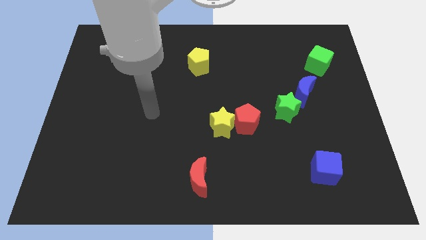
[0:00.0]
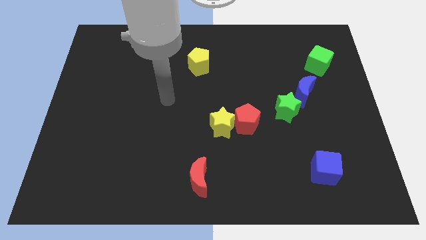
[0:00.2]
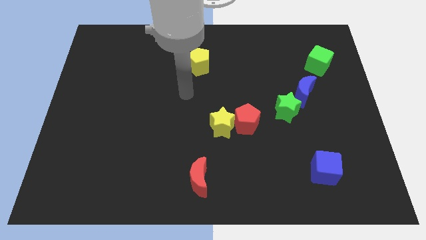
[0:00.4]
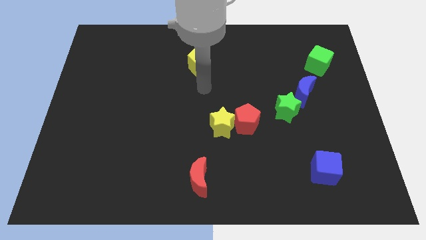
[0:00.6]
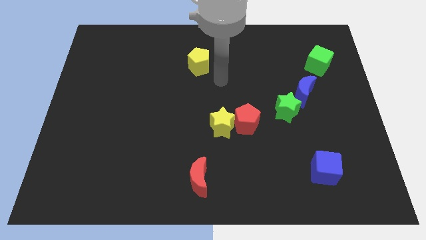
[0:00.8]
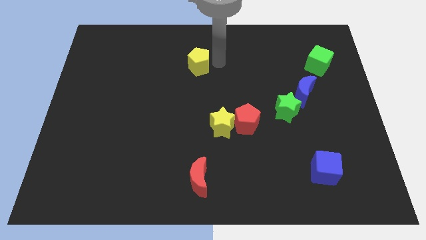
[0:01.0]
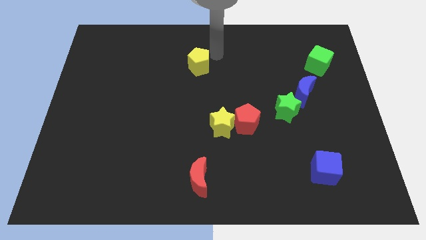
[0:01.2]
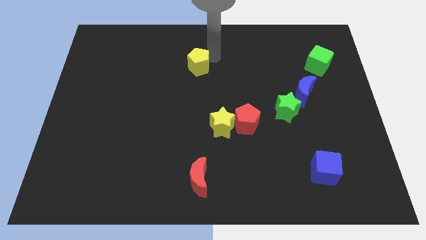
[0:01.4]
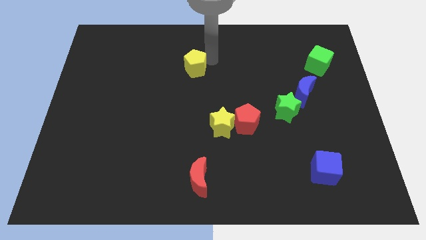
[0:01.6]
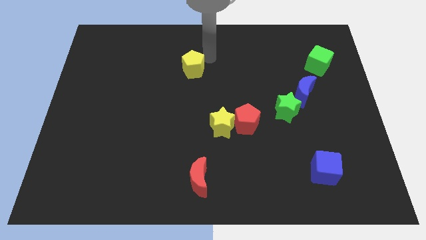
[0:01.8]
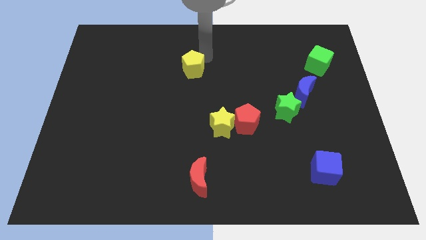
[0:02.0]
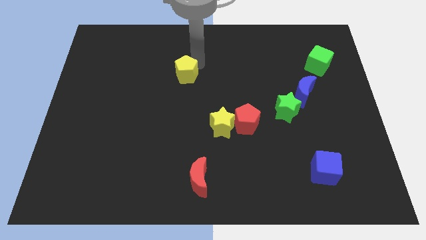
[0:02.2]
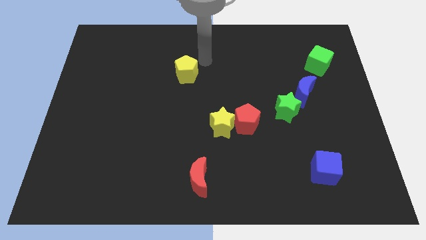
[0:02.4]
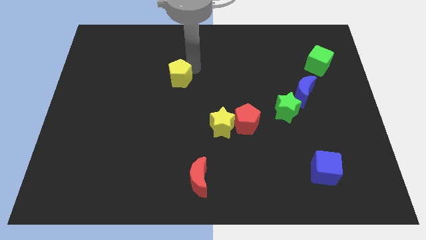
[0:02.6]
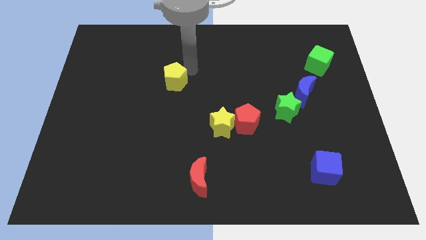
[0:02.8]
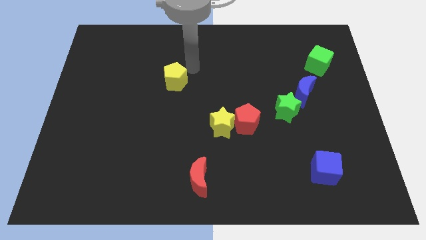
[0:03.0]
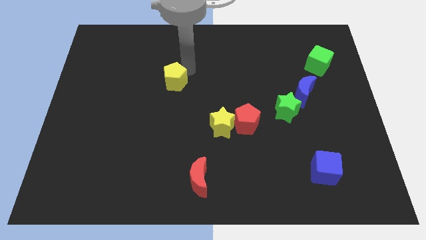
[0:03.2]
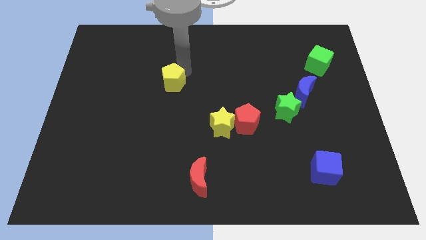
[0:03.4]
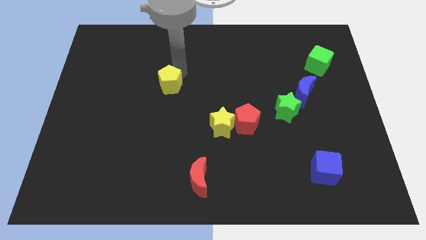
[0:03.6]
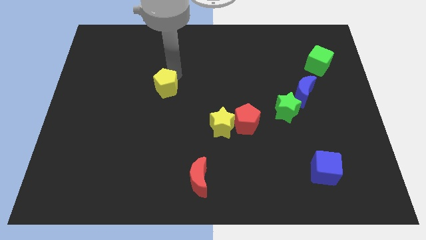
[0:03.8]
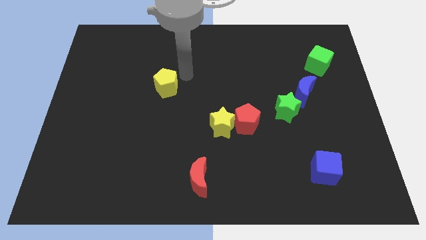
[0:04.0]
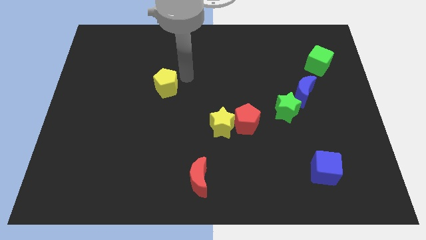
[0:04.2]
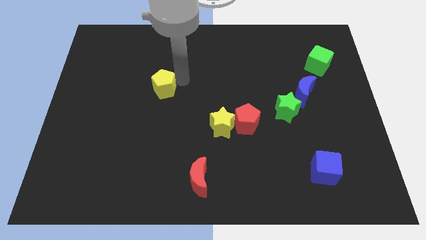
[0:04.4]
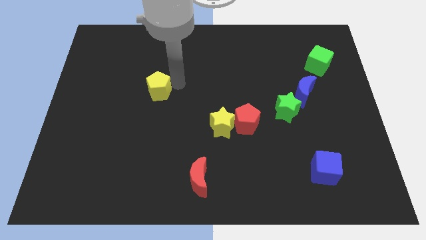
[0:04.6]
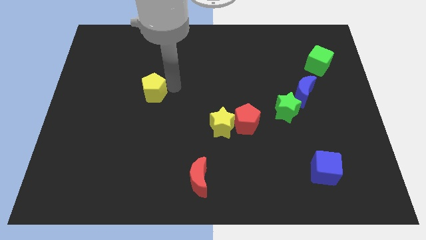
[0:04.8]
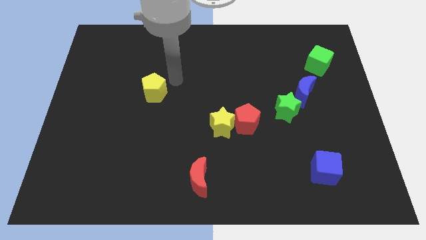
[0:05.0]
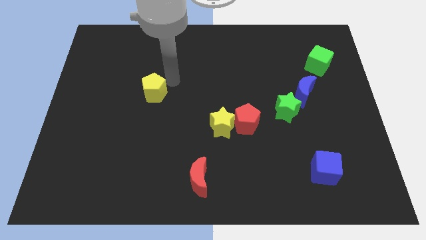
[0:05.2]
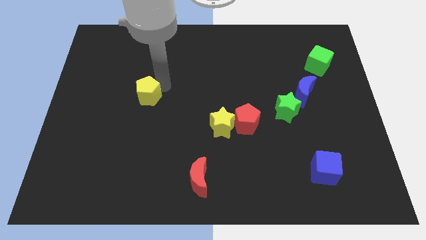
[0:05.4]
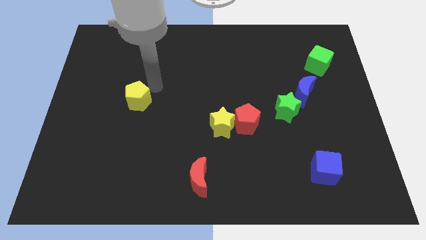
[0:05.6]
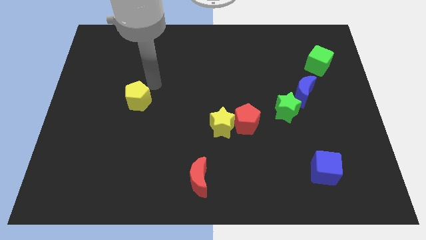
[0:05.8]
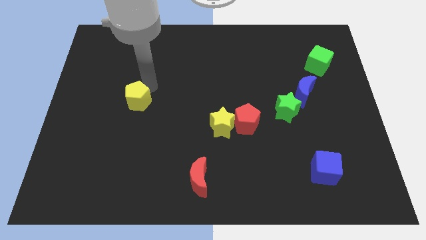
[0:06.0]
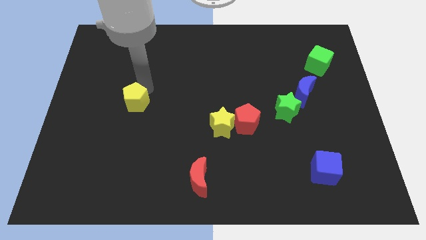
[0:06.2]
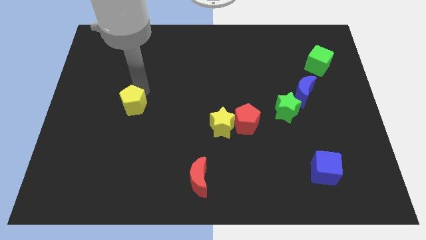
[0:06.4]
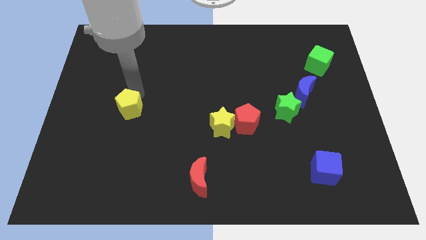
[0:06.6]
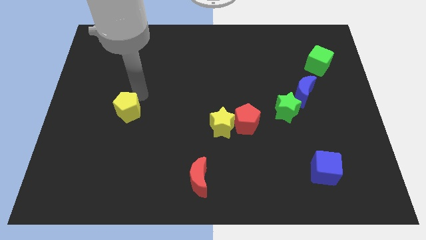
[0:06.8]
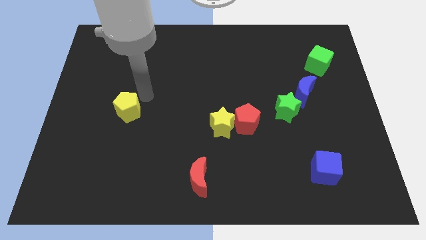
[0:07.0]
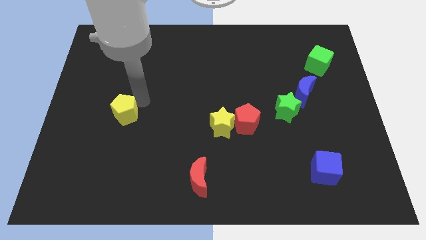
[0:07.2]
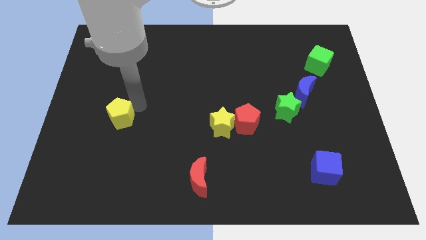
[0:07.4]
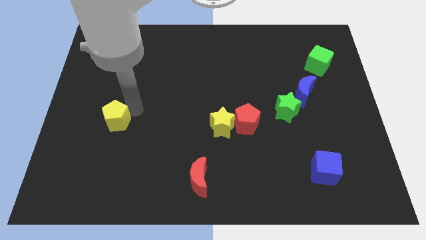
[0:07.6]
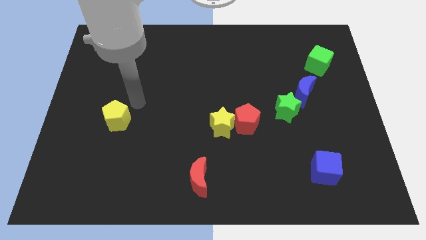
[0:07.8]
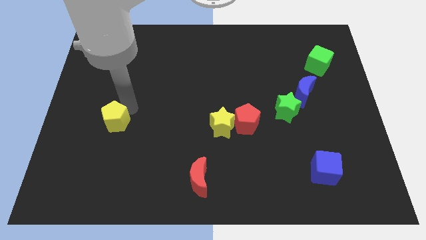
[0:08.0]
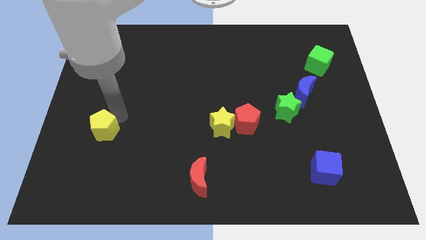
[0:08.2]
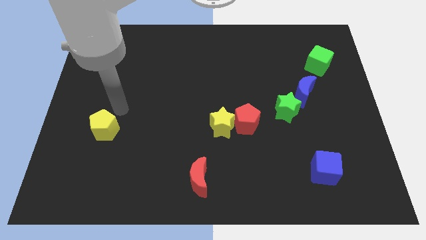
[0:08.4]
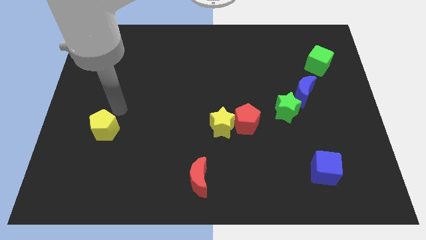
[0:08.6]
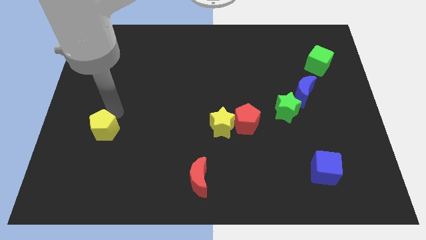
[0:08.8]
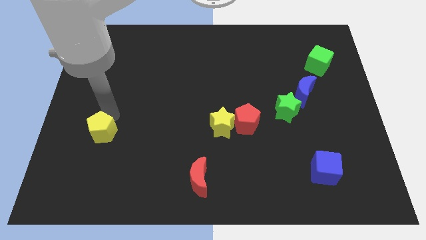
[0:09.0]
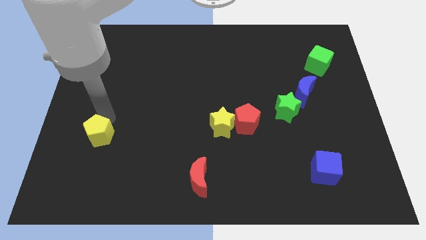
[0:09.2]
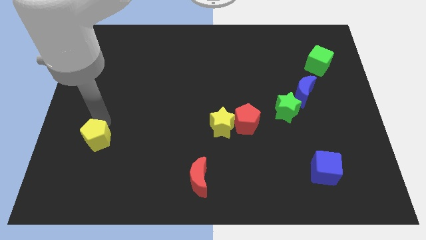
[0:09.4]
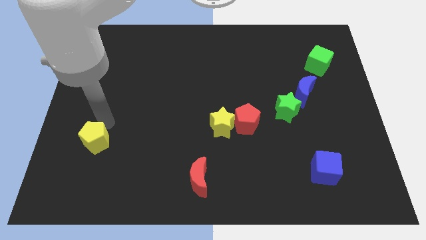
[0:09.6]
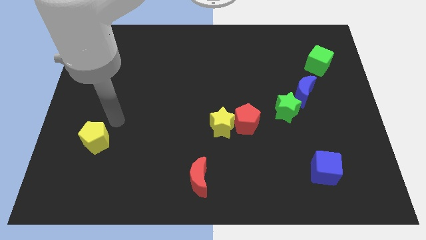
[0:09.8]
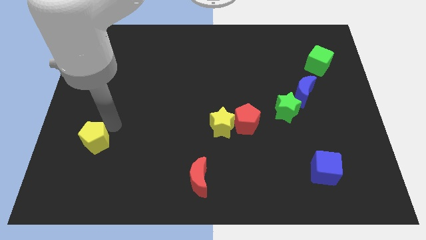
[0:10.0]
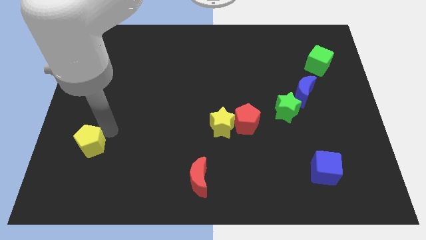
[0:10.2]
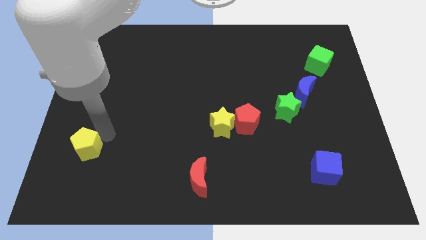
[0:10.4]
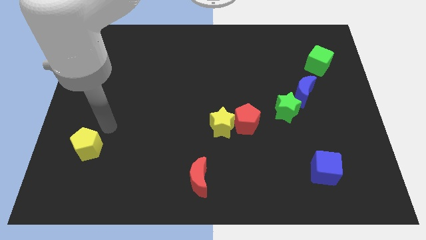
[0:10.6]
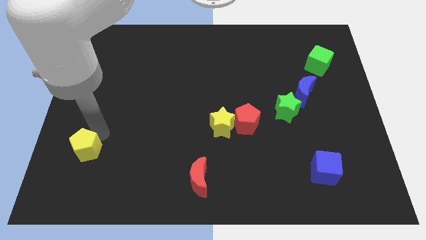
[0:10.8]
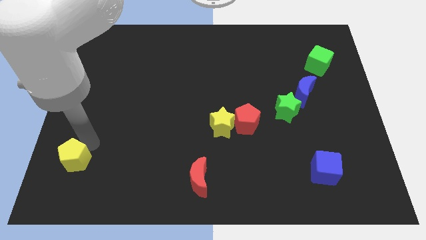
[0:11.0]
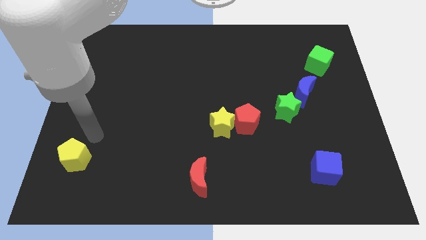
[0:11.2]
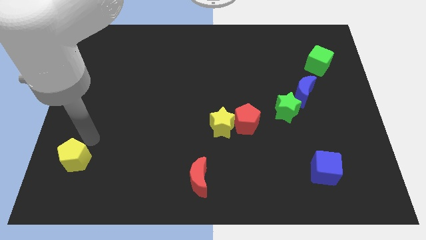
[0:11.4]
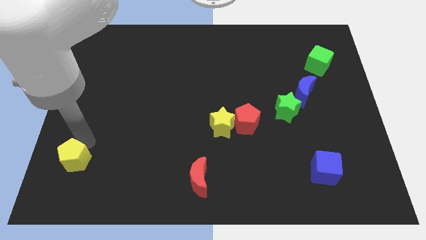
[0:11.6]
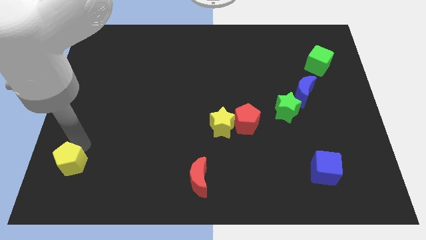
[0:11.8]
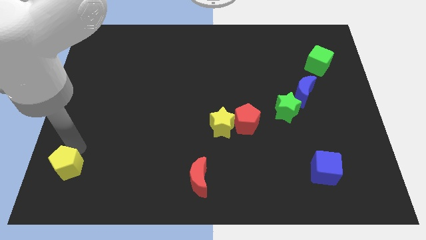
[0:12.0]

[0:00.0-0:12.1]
put the yellow pentagon to the bottom left
